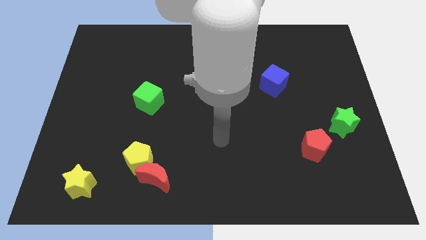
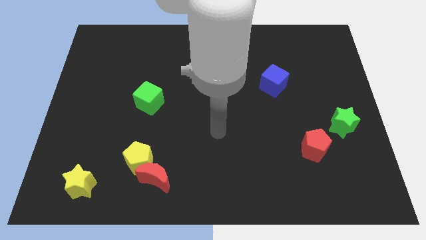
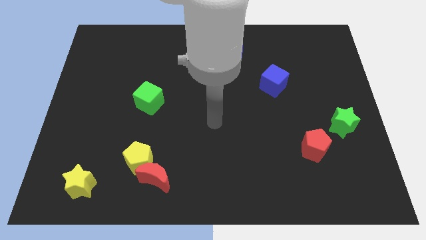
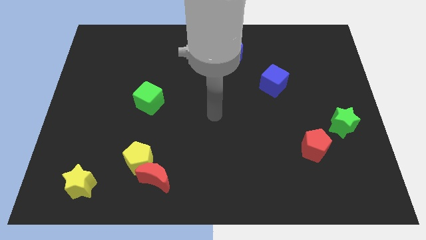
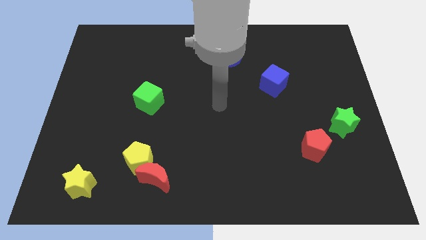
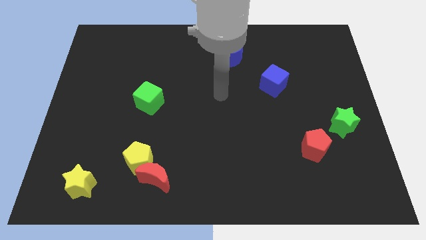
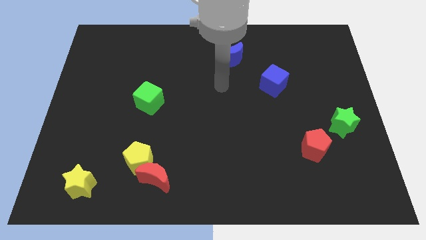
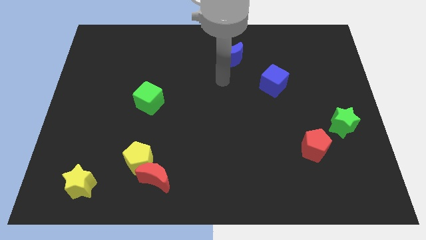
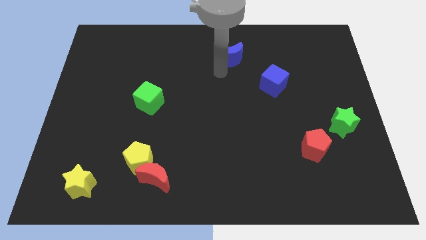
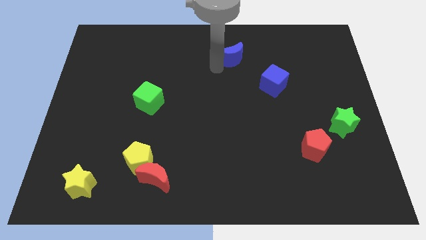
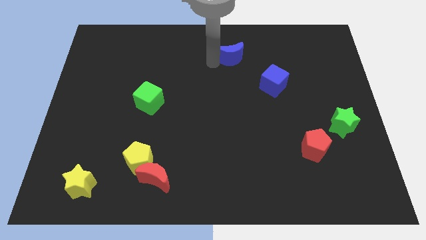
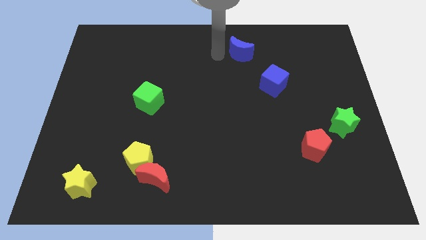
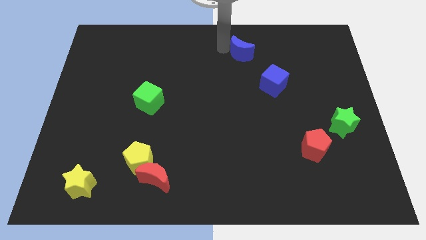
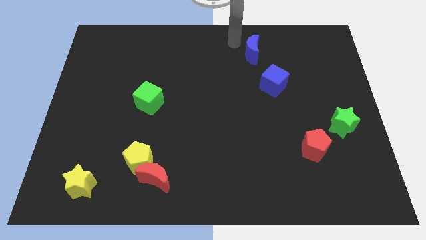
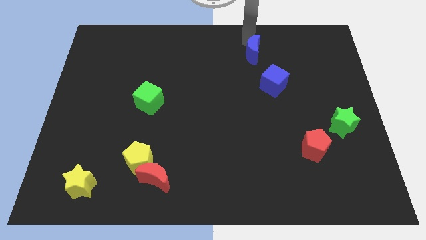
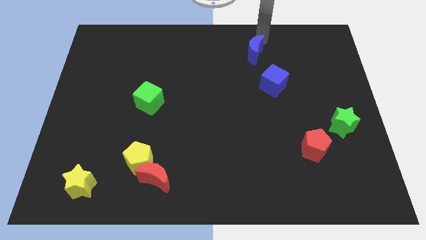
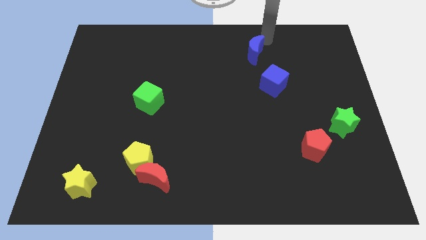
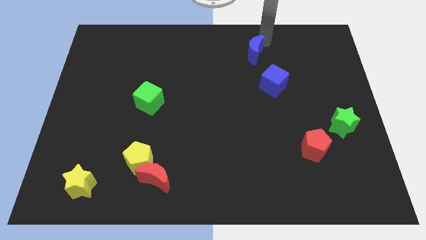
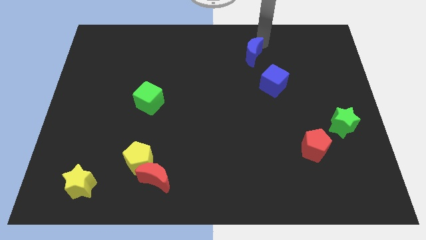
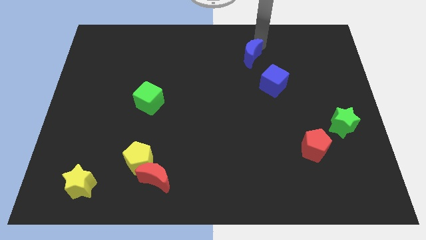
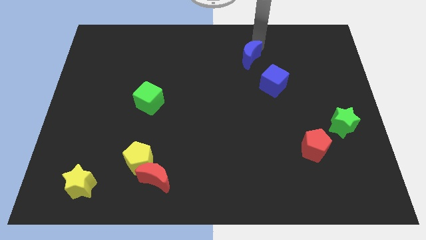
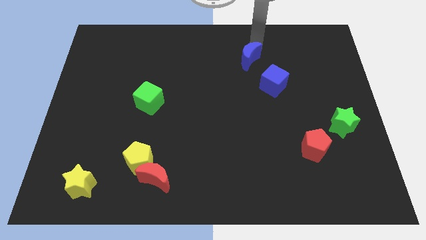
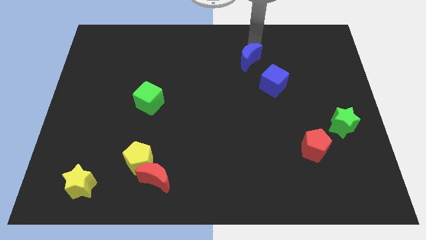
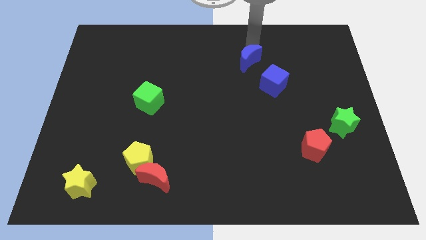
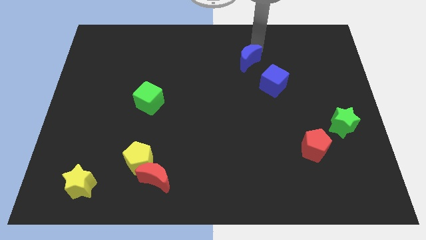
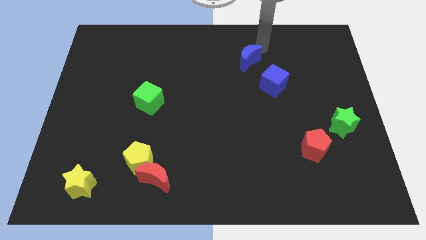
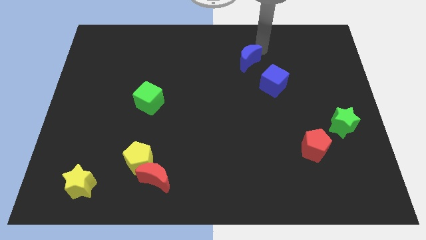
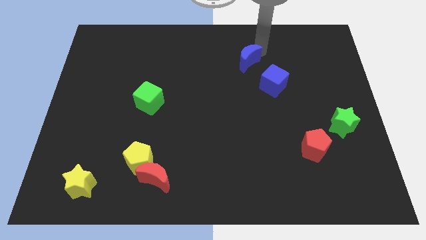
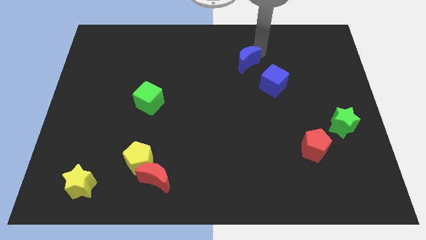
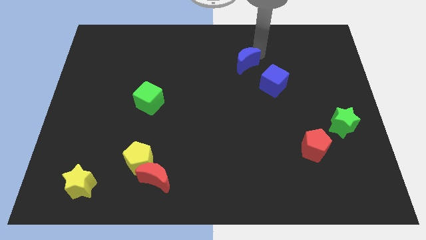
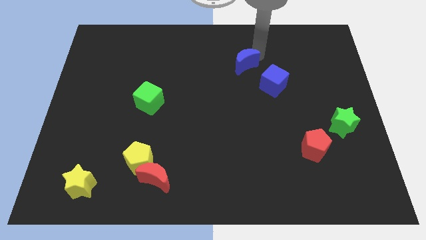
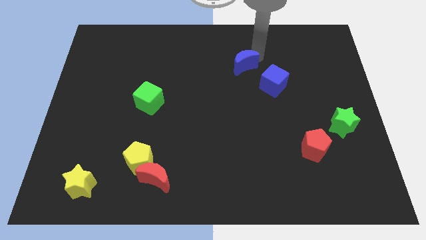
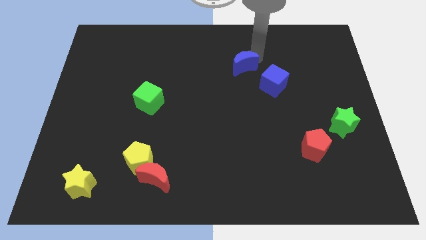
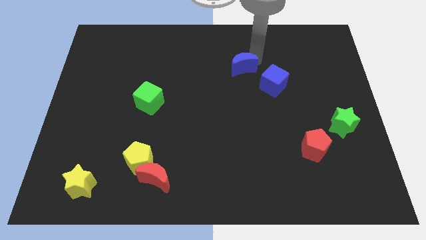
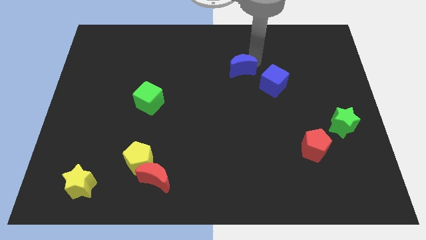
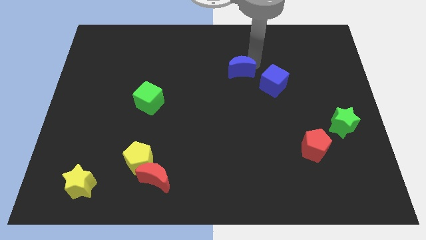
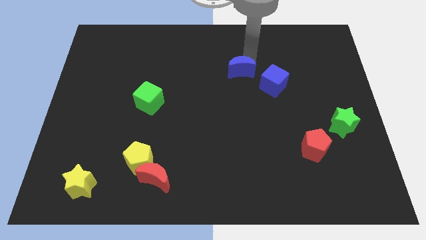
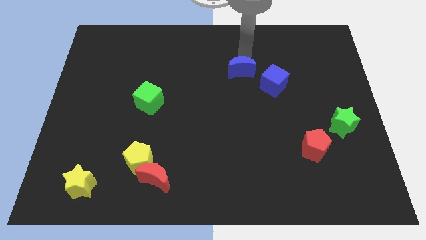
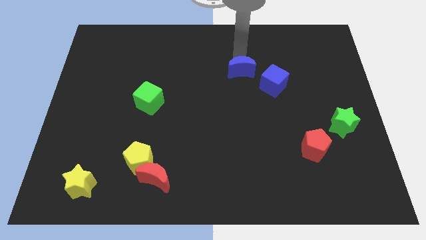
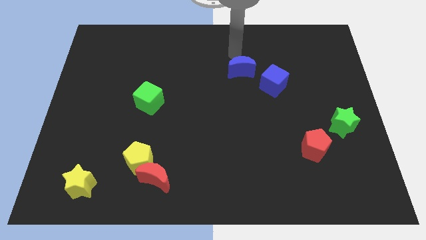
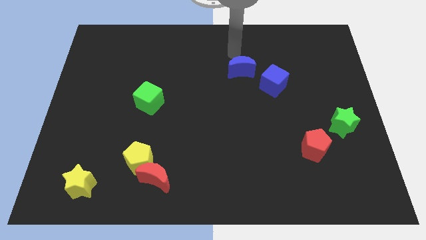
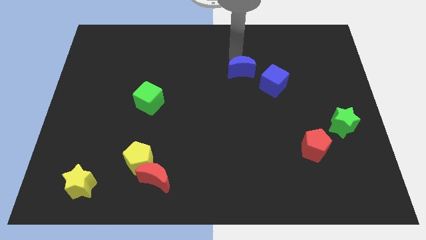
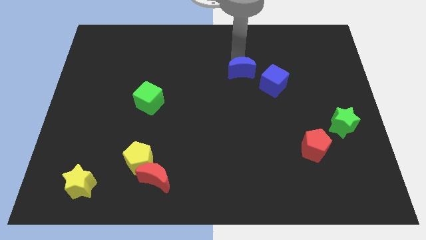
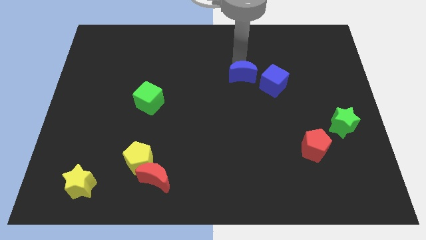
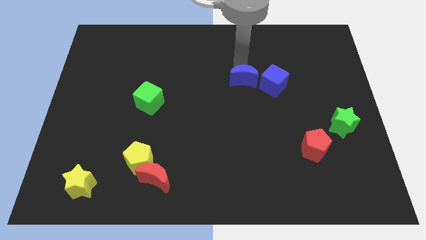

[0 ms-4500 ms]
push the blue moon a bit diagonally downwards and right

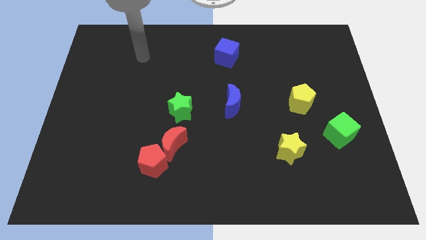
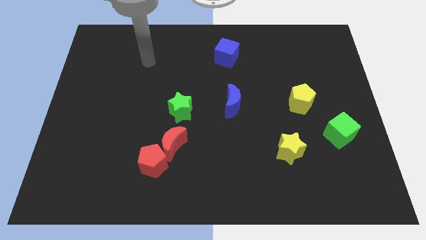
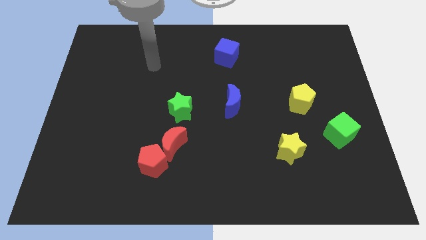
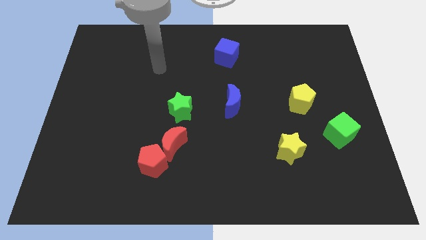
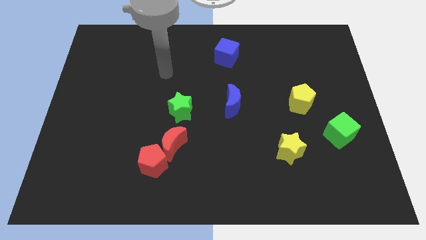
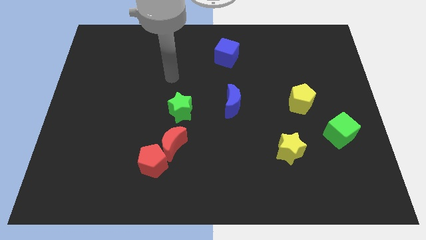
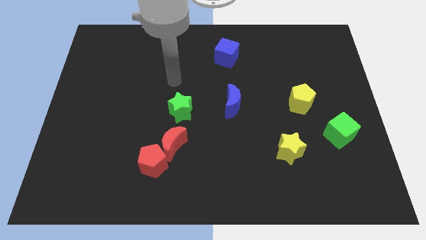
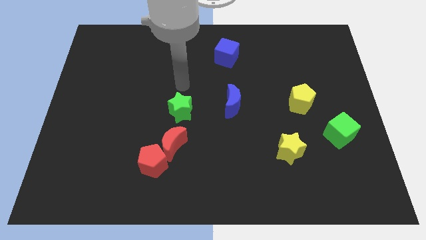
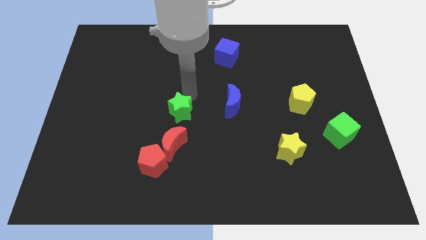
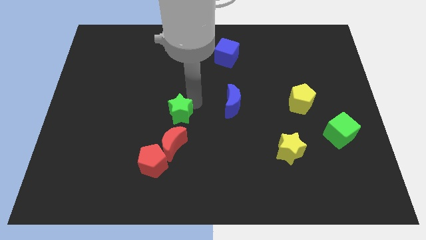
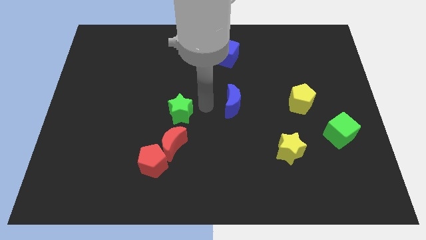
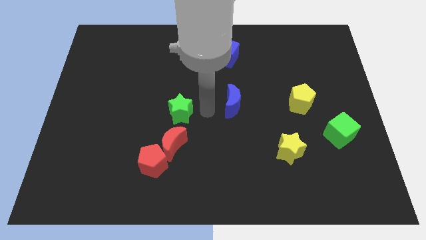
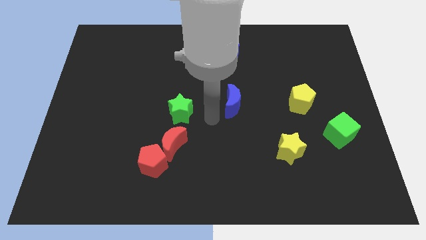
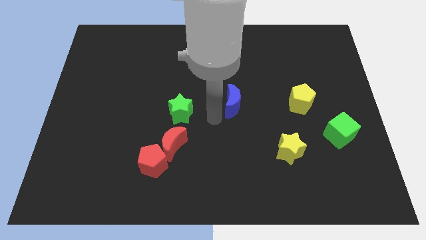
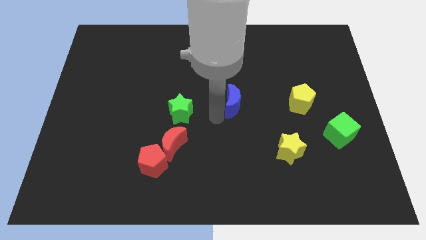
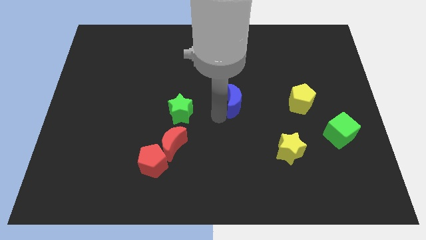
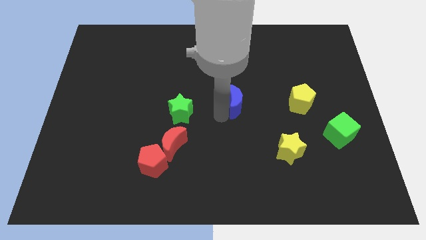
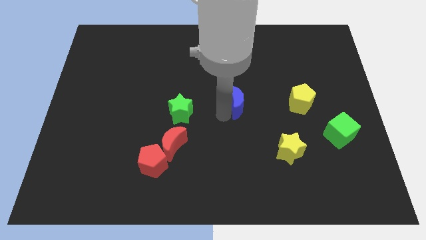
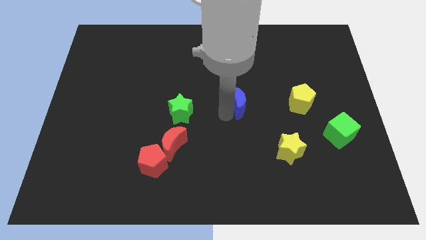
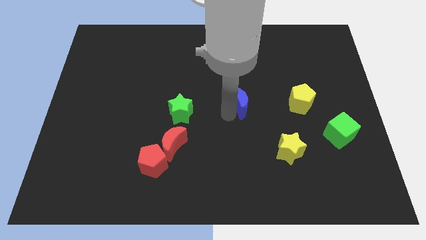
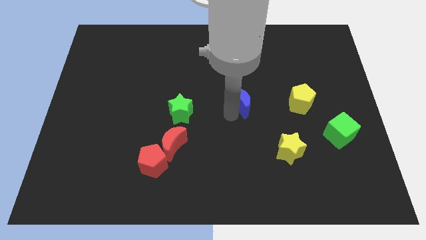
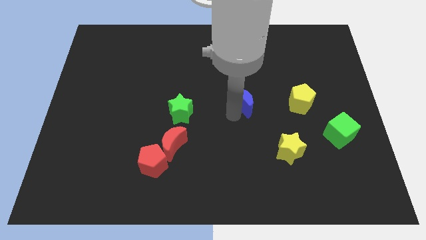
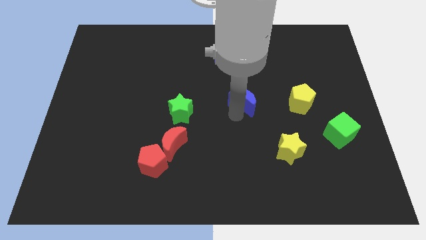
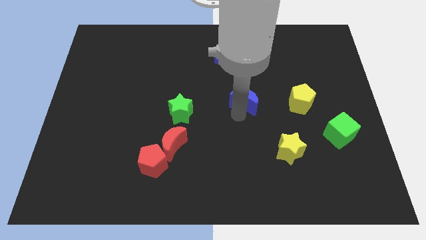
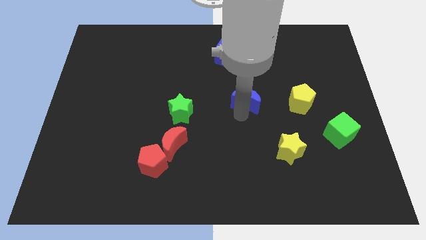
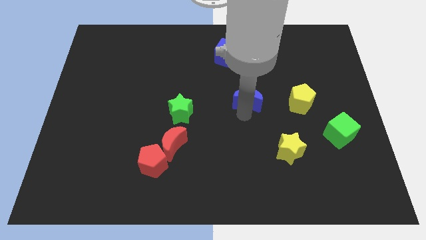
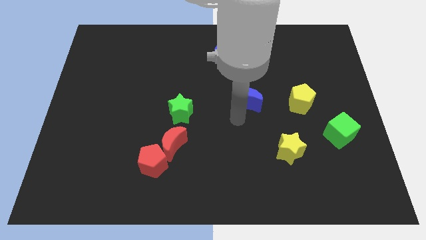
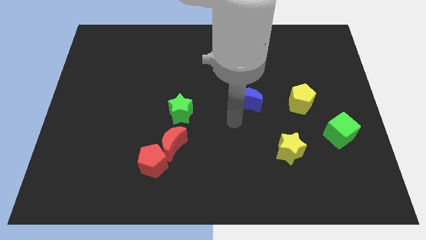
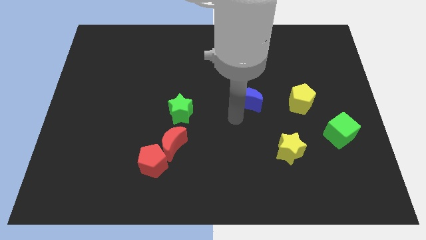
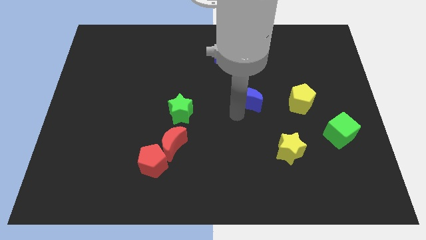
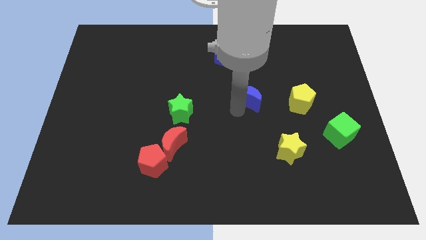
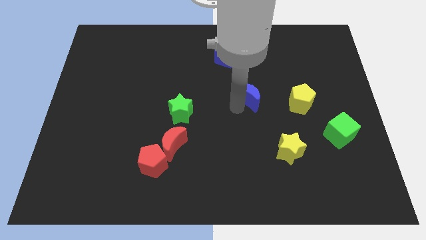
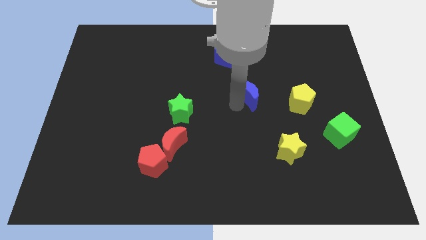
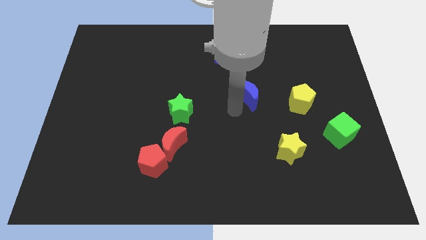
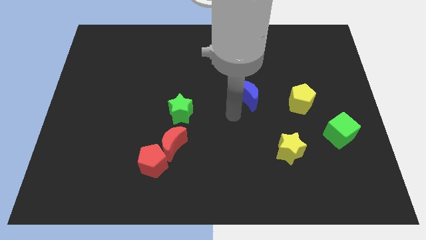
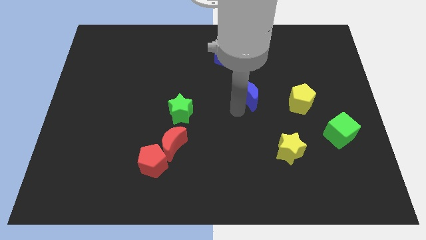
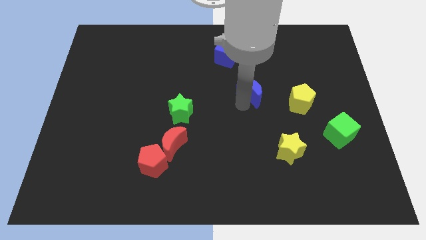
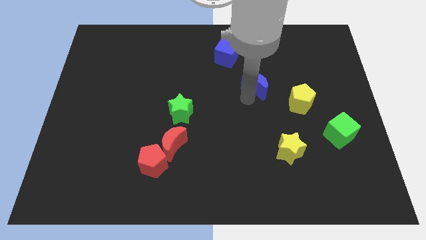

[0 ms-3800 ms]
slightly move the blue moon diagonally upwards and to the right

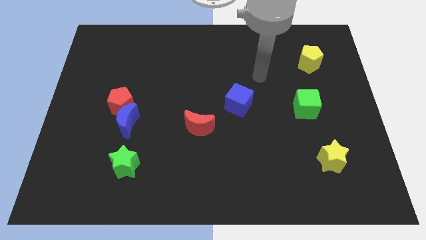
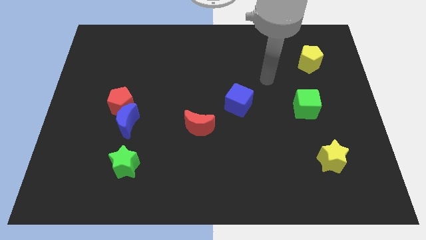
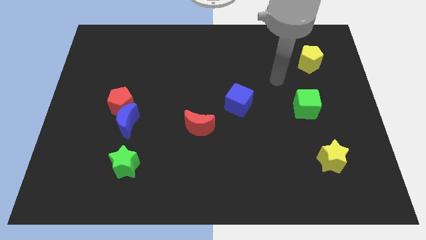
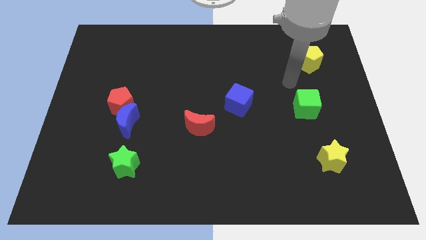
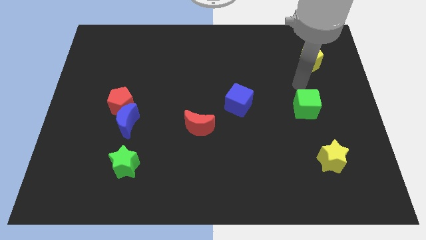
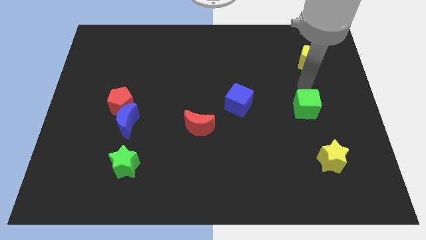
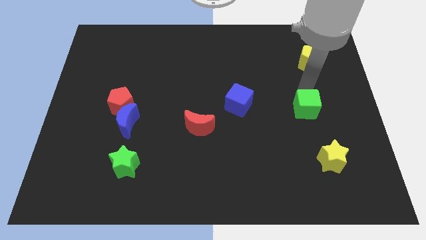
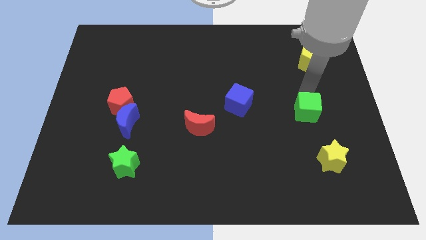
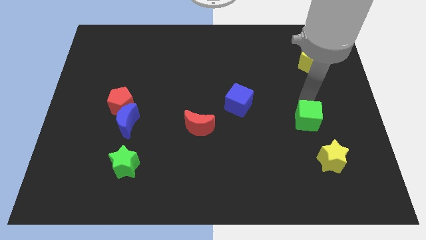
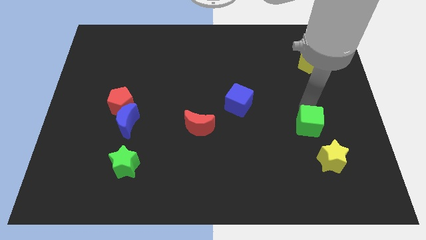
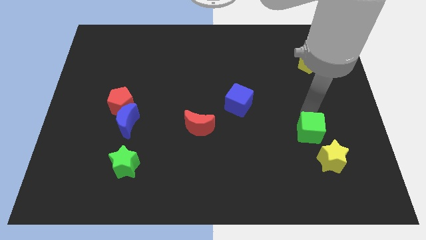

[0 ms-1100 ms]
push the green cube somewhat downwards
